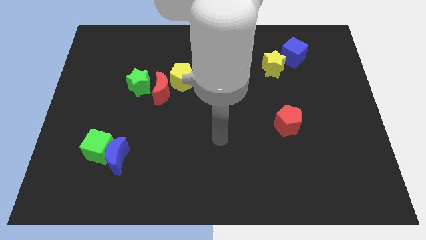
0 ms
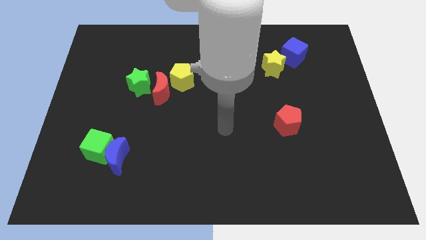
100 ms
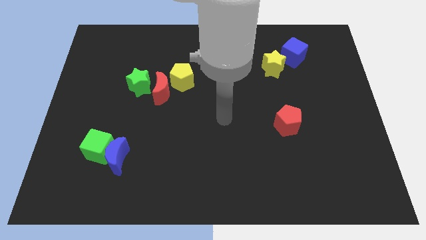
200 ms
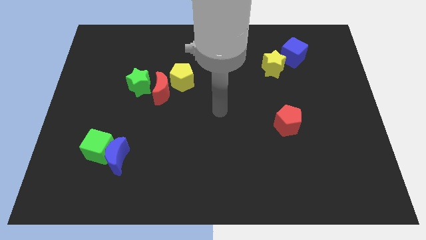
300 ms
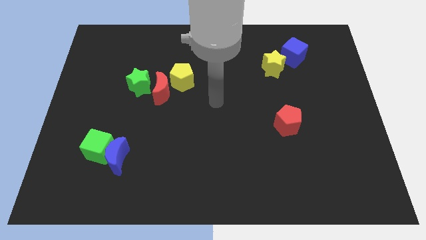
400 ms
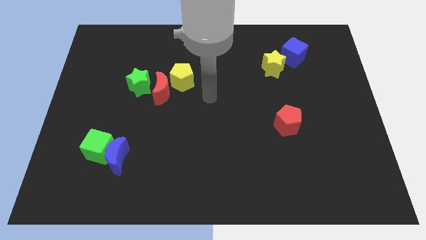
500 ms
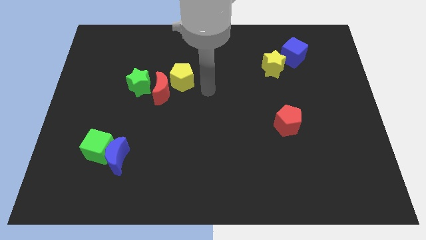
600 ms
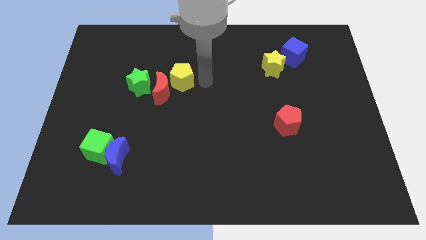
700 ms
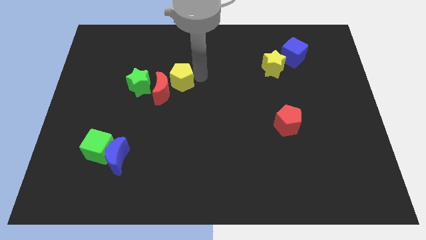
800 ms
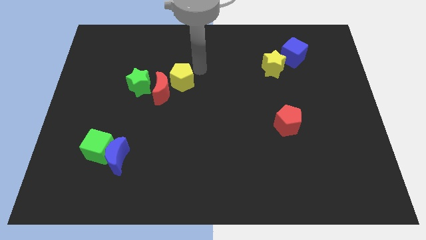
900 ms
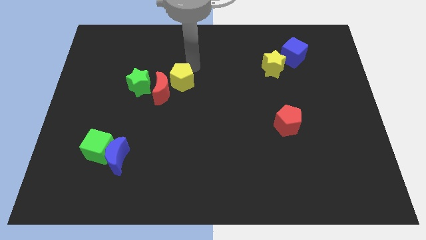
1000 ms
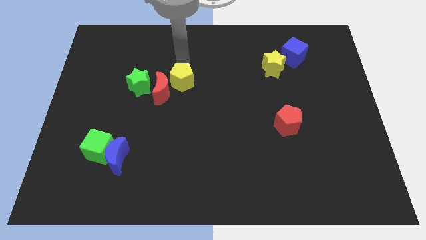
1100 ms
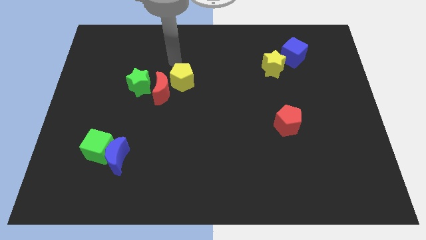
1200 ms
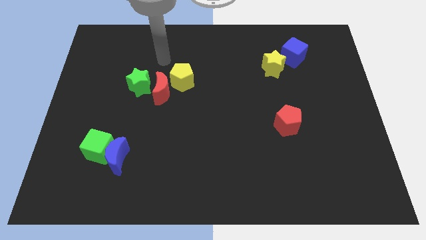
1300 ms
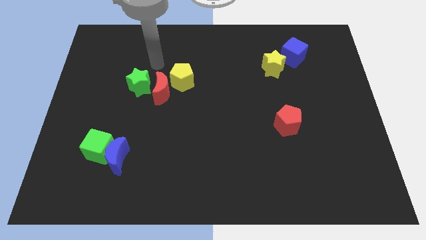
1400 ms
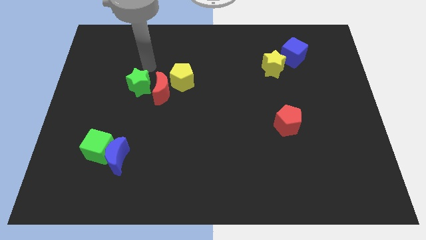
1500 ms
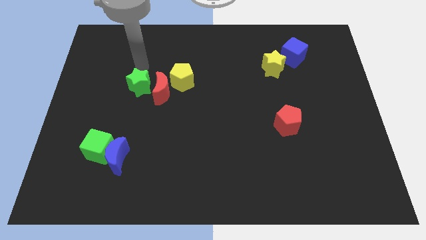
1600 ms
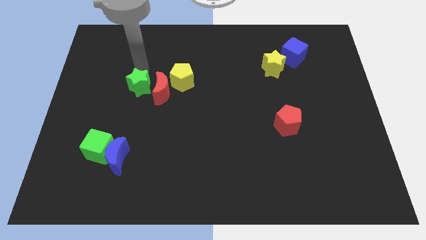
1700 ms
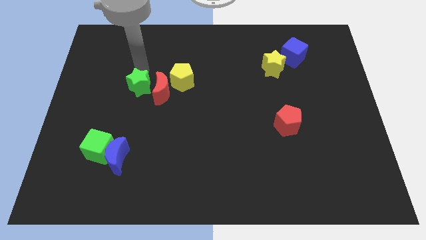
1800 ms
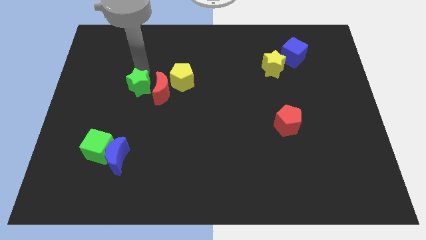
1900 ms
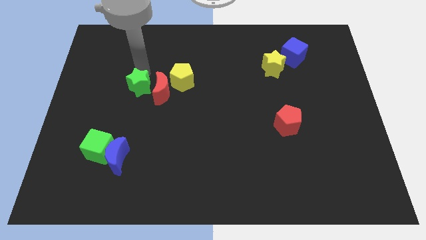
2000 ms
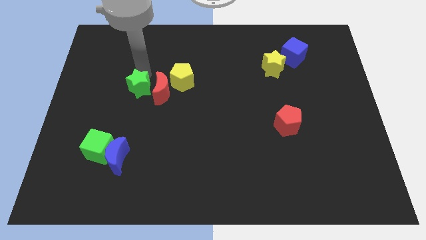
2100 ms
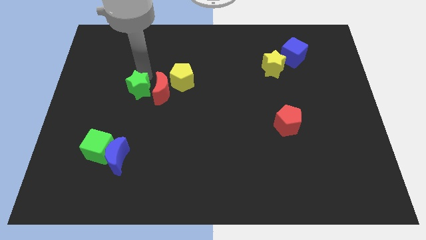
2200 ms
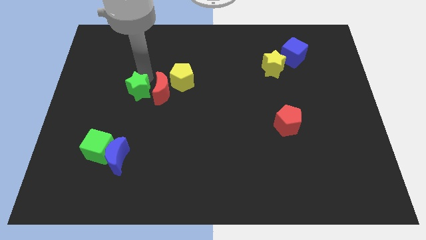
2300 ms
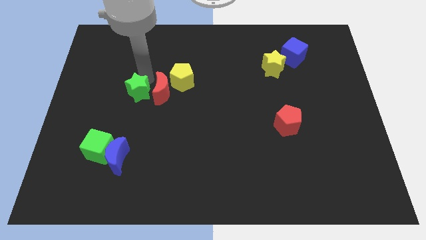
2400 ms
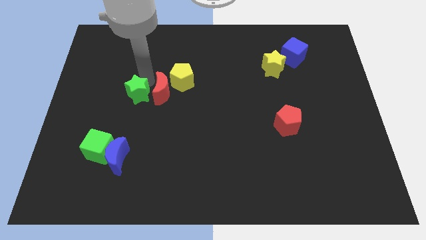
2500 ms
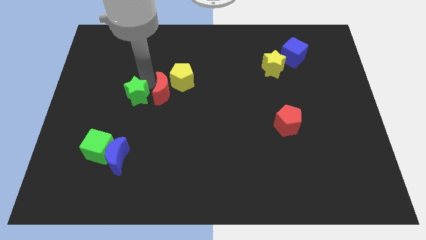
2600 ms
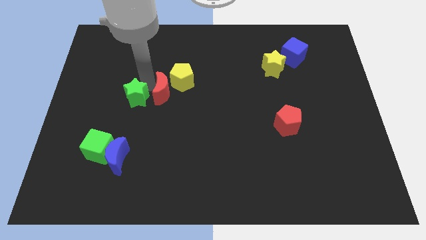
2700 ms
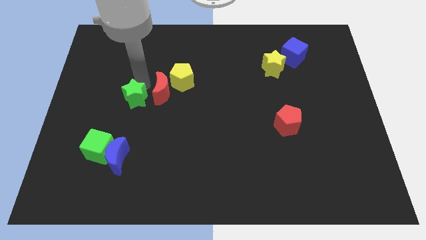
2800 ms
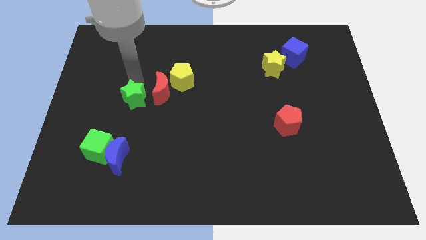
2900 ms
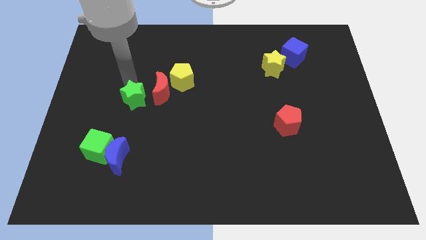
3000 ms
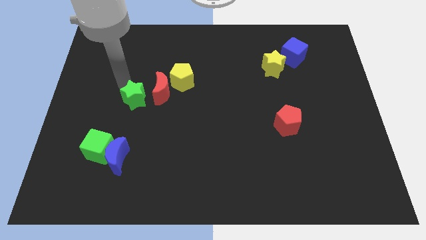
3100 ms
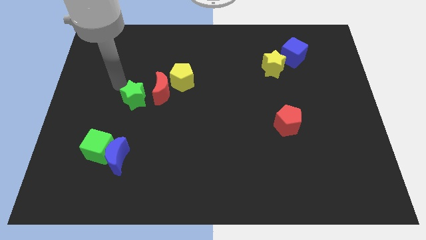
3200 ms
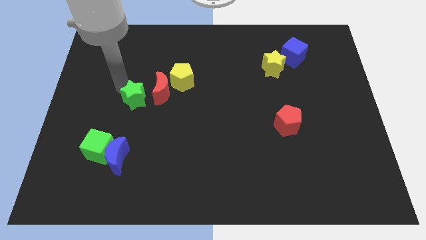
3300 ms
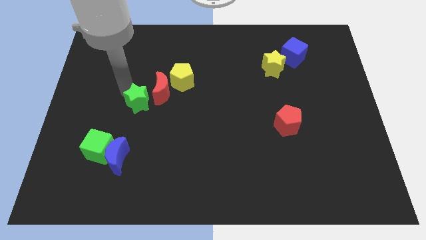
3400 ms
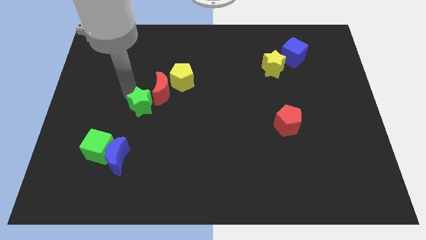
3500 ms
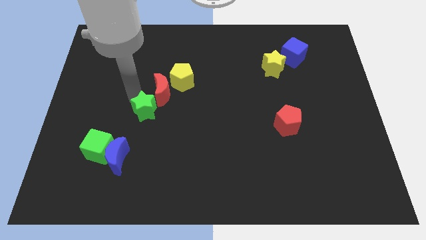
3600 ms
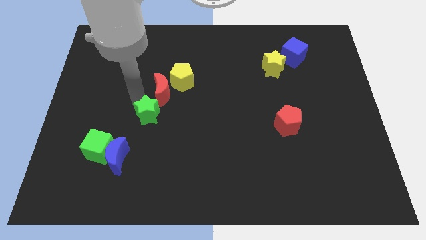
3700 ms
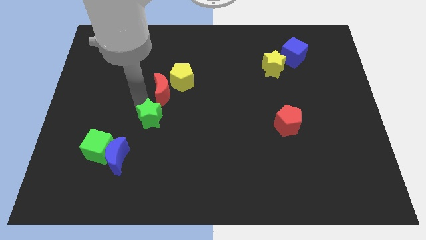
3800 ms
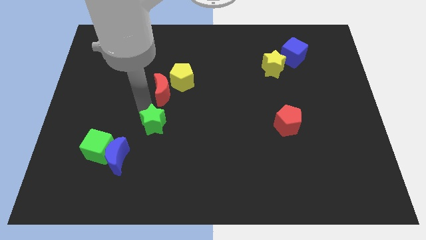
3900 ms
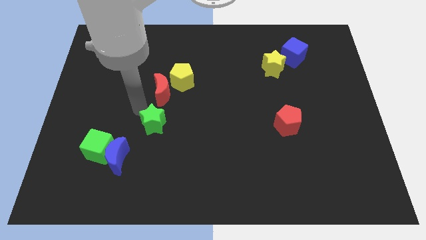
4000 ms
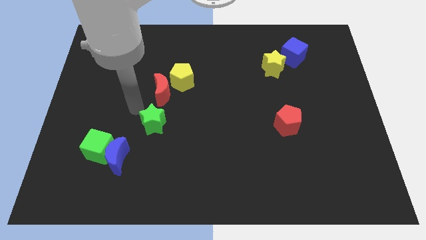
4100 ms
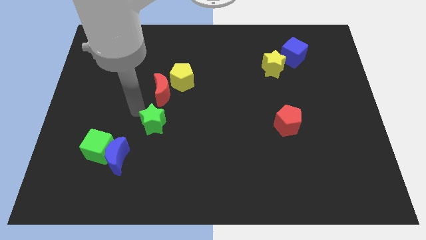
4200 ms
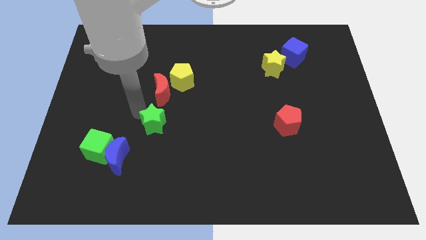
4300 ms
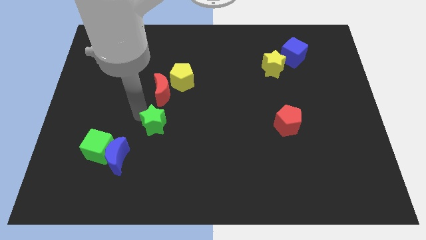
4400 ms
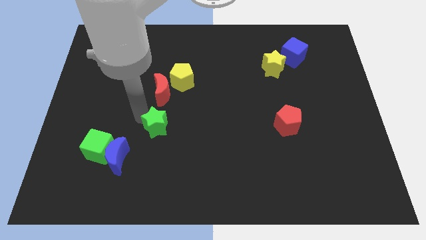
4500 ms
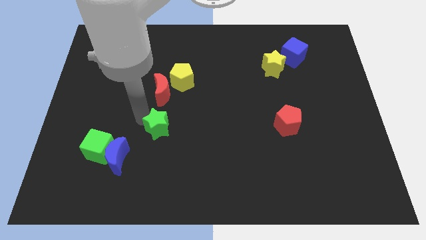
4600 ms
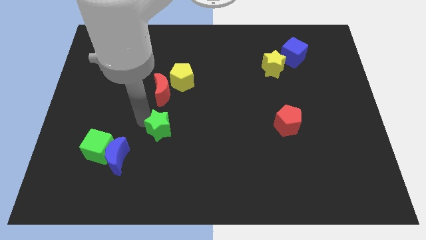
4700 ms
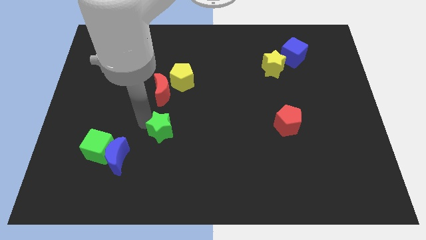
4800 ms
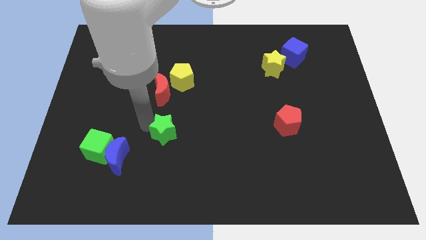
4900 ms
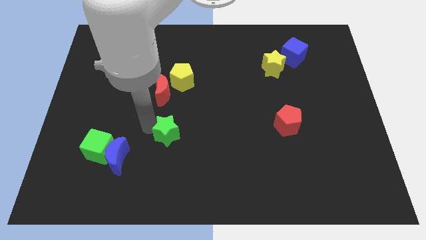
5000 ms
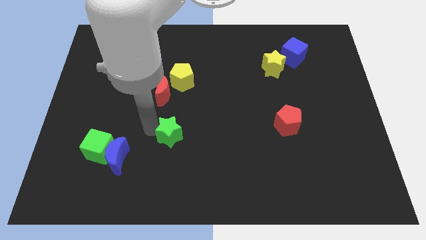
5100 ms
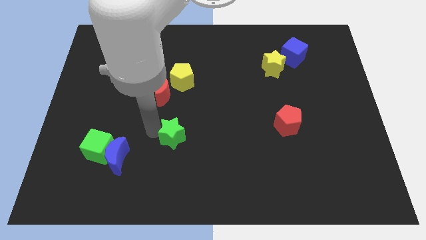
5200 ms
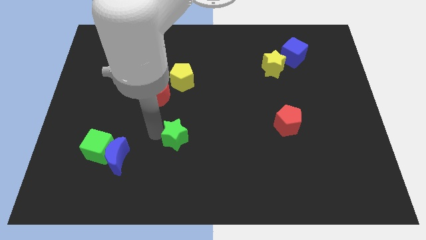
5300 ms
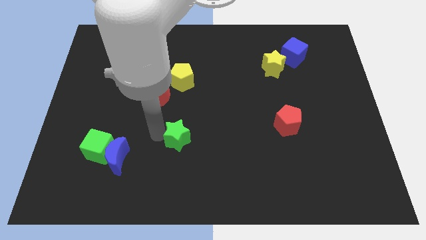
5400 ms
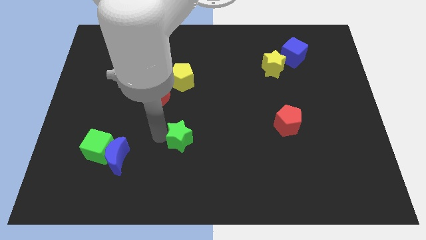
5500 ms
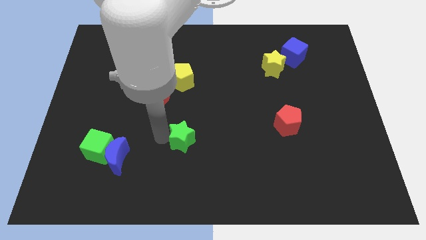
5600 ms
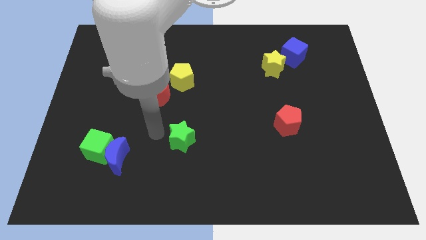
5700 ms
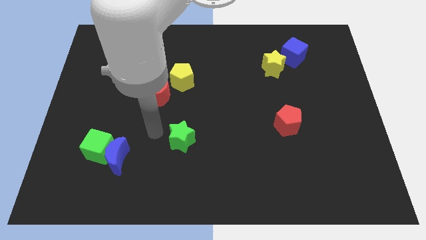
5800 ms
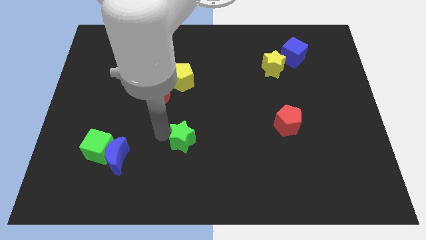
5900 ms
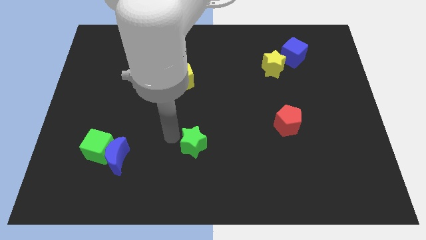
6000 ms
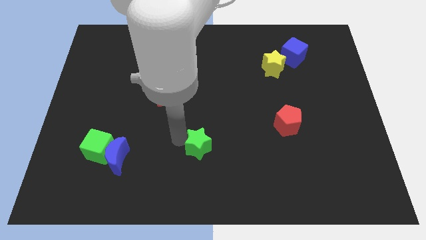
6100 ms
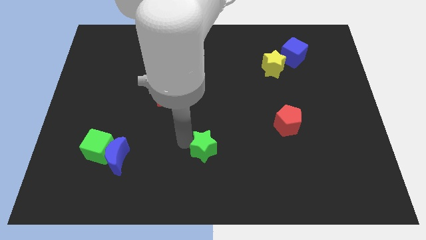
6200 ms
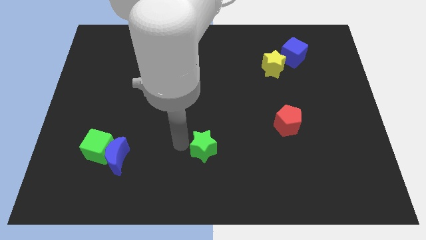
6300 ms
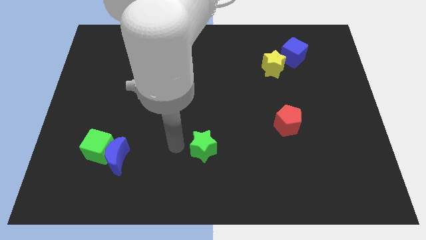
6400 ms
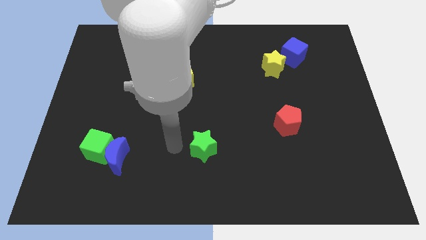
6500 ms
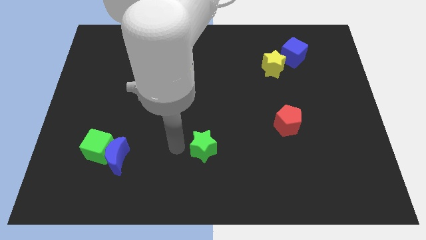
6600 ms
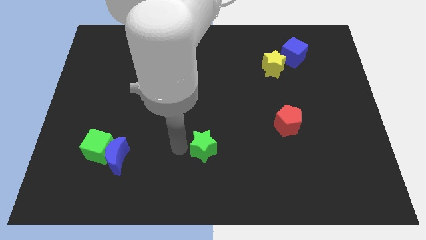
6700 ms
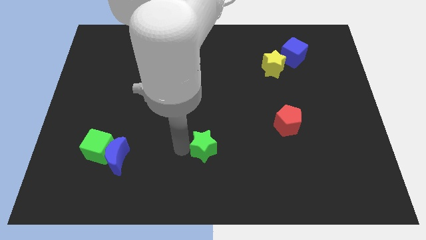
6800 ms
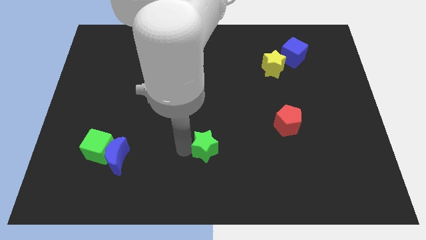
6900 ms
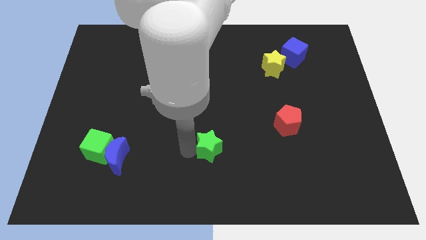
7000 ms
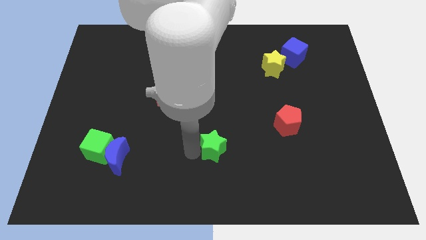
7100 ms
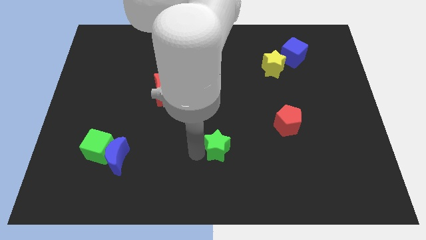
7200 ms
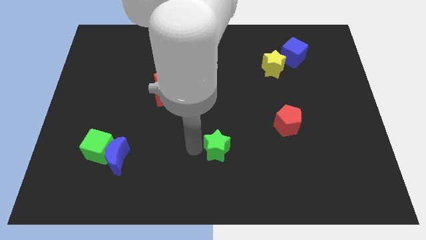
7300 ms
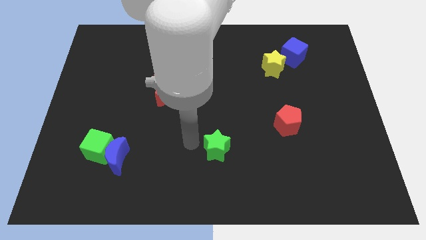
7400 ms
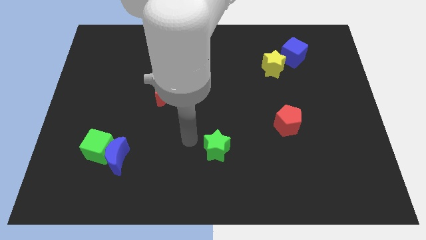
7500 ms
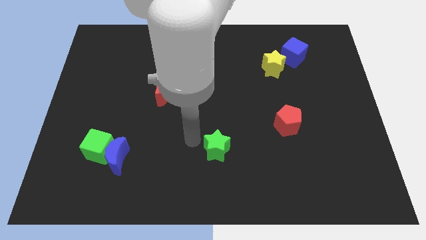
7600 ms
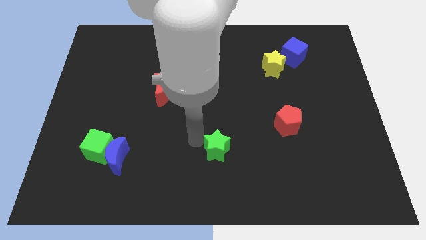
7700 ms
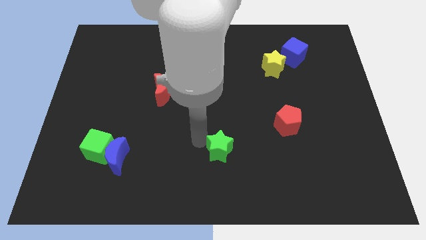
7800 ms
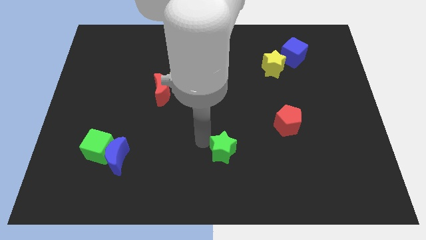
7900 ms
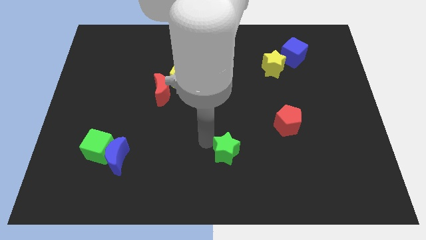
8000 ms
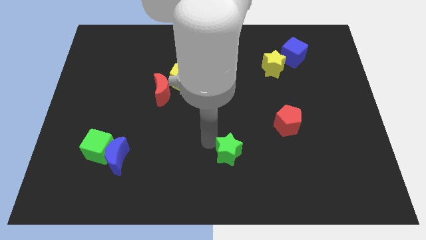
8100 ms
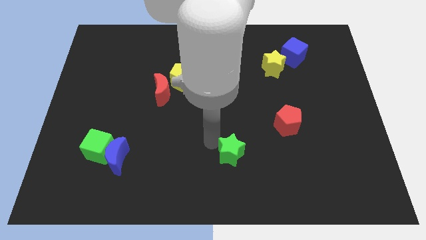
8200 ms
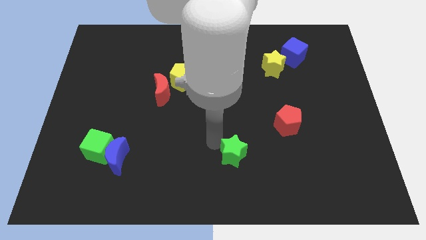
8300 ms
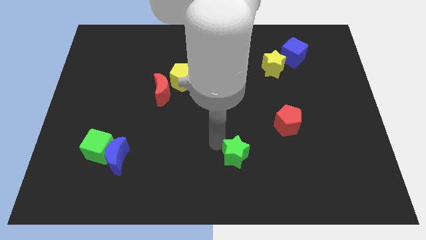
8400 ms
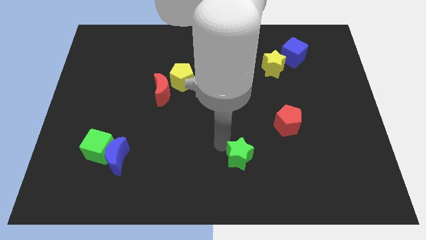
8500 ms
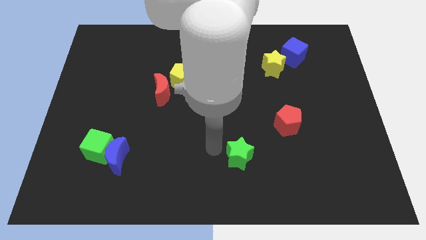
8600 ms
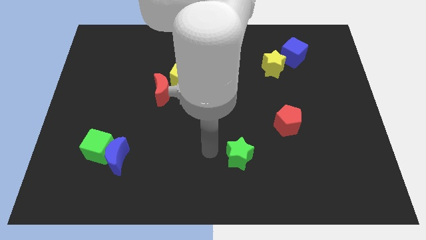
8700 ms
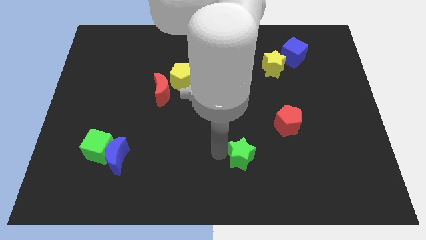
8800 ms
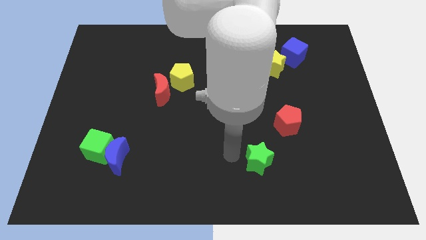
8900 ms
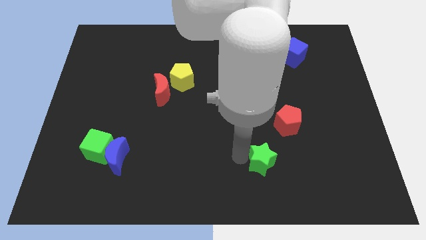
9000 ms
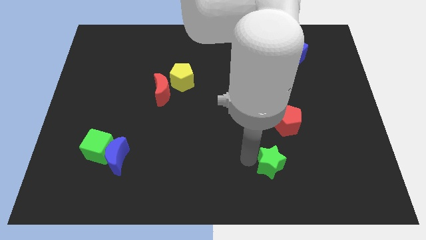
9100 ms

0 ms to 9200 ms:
slide the green star below the red pentagon
